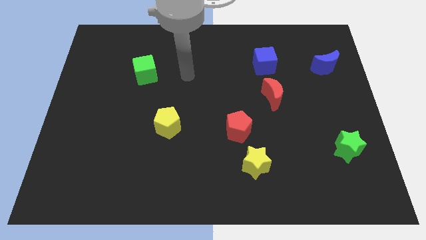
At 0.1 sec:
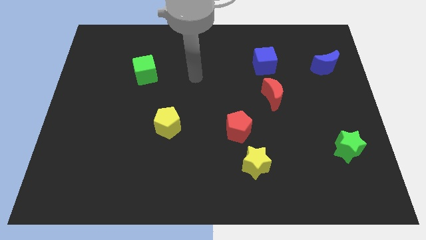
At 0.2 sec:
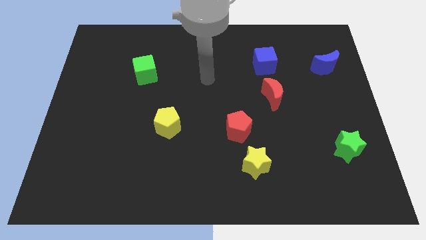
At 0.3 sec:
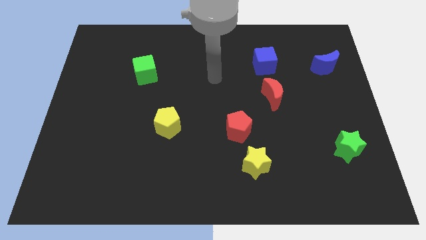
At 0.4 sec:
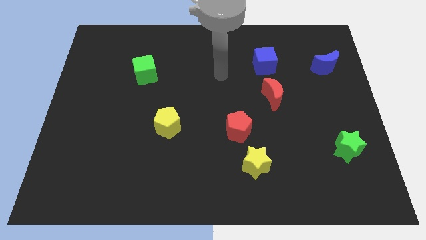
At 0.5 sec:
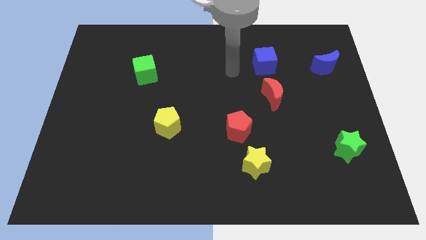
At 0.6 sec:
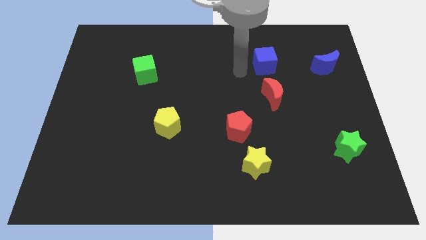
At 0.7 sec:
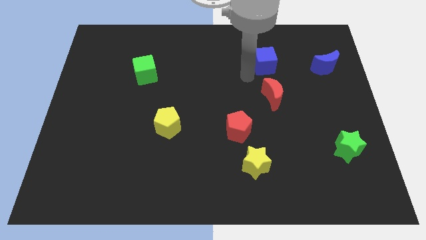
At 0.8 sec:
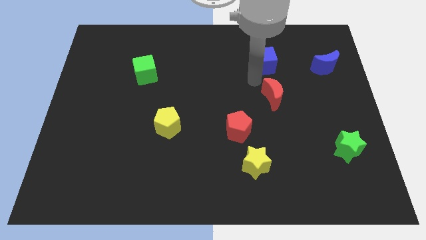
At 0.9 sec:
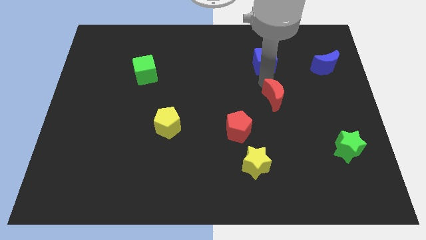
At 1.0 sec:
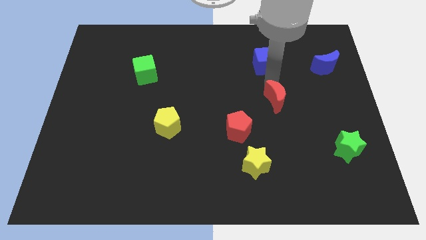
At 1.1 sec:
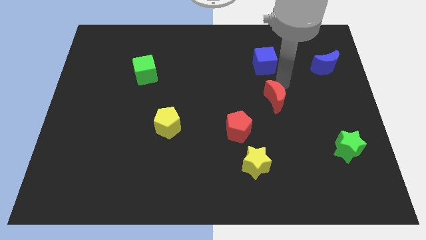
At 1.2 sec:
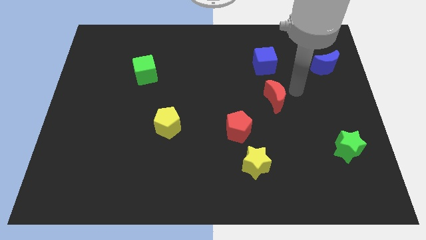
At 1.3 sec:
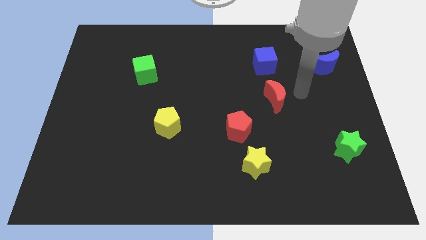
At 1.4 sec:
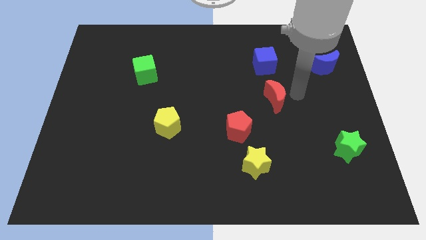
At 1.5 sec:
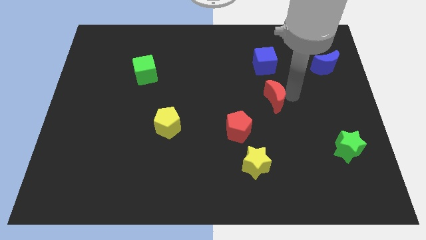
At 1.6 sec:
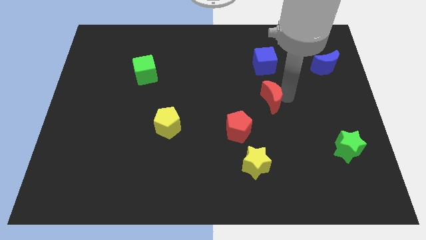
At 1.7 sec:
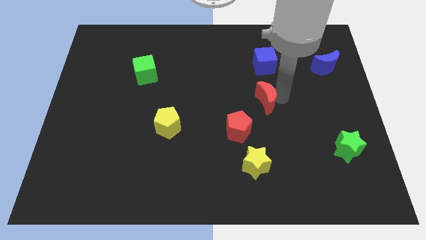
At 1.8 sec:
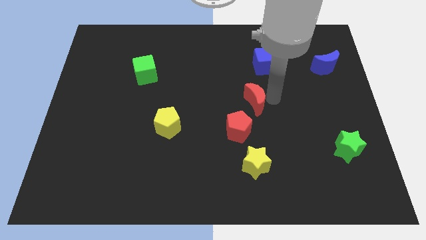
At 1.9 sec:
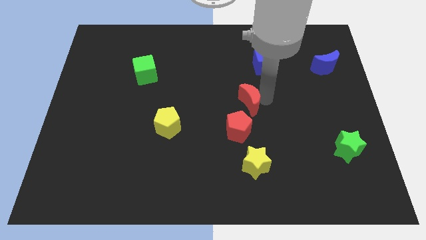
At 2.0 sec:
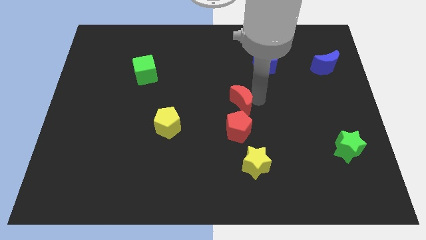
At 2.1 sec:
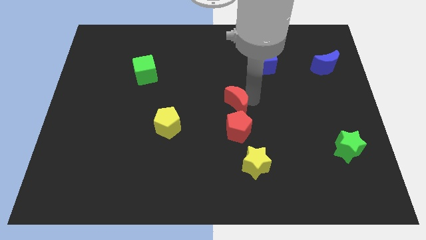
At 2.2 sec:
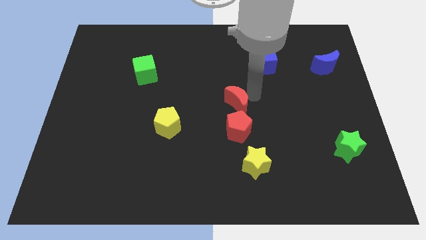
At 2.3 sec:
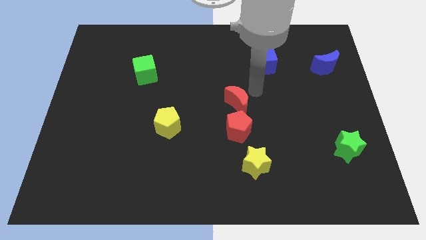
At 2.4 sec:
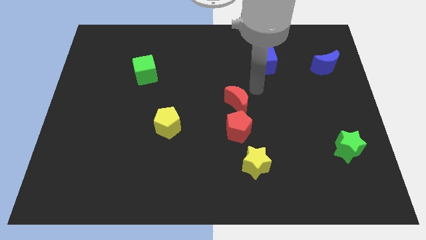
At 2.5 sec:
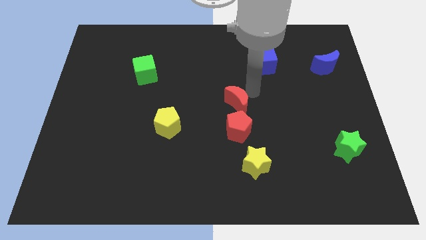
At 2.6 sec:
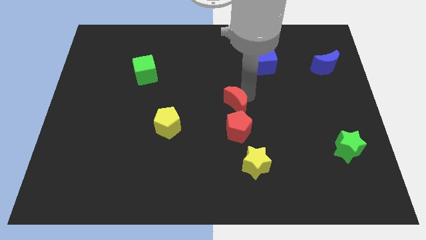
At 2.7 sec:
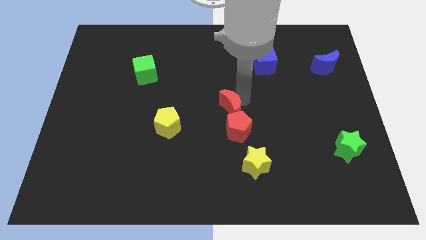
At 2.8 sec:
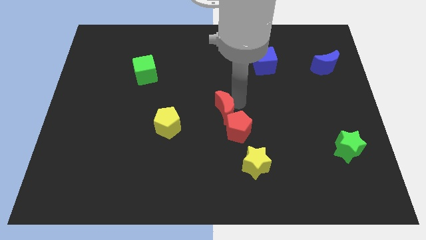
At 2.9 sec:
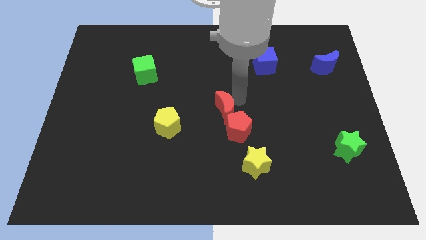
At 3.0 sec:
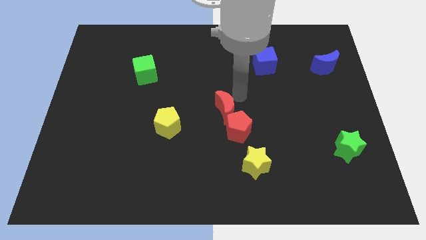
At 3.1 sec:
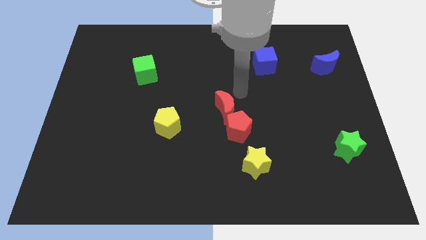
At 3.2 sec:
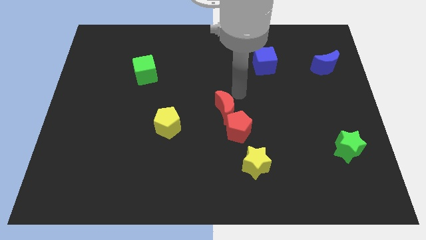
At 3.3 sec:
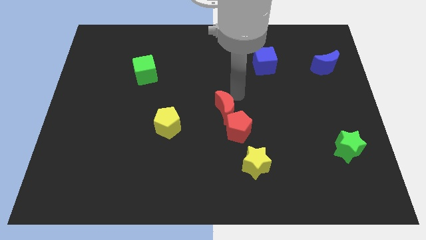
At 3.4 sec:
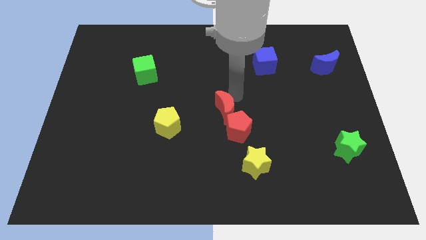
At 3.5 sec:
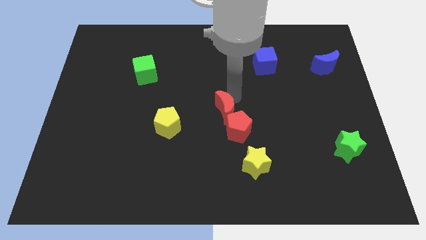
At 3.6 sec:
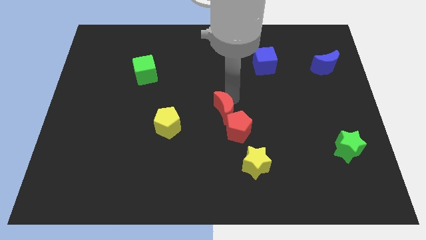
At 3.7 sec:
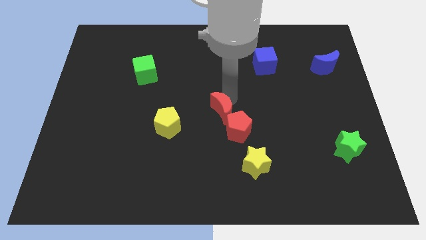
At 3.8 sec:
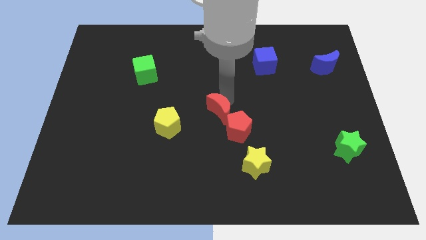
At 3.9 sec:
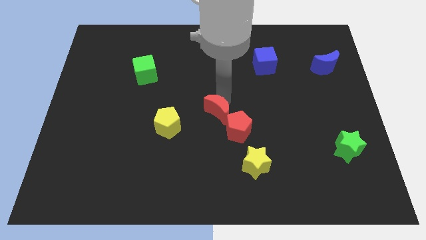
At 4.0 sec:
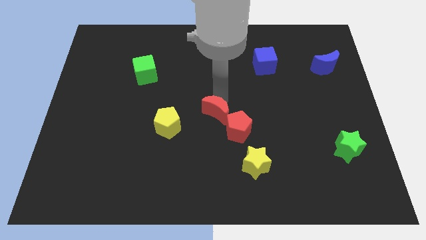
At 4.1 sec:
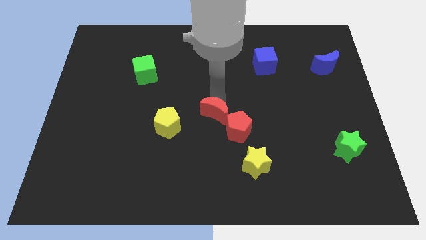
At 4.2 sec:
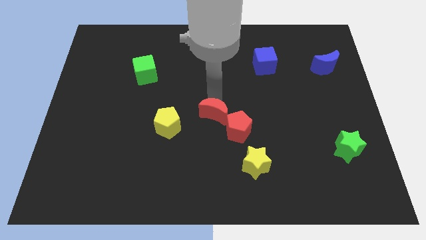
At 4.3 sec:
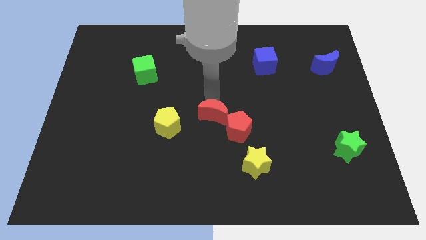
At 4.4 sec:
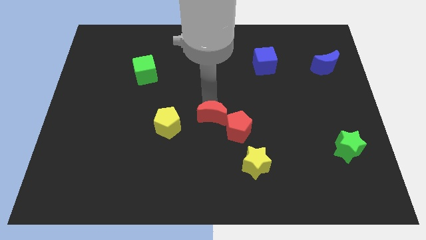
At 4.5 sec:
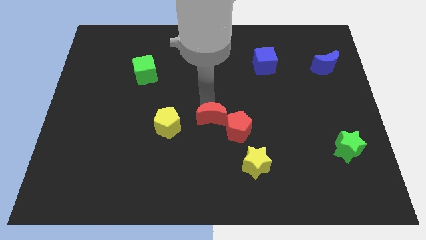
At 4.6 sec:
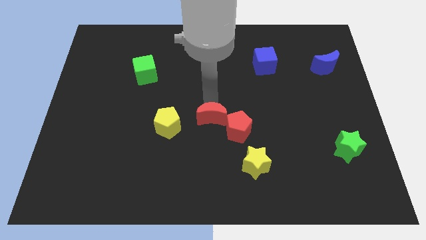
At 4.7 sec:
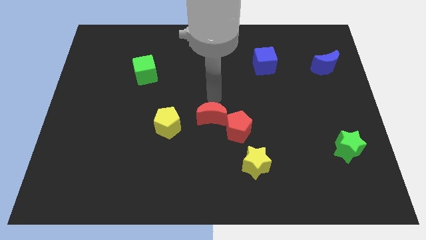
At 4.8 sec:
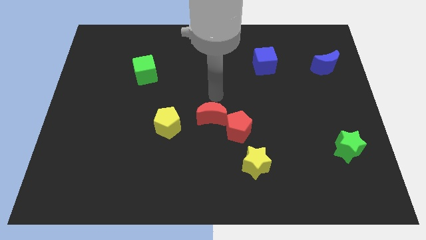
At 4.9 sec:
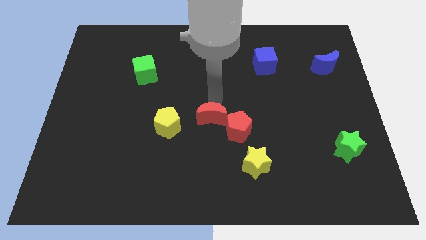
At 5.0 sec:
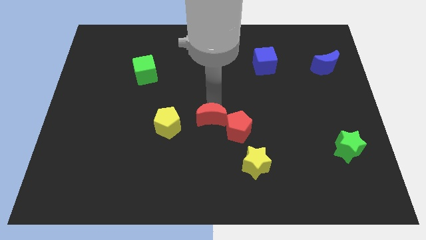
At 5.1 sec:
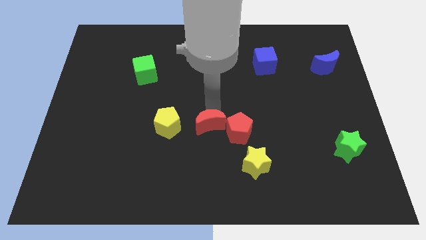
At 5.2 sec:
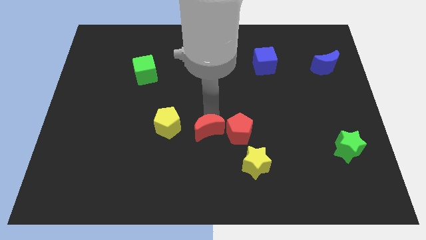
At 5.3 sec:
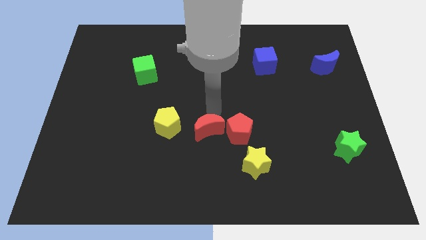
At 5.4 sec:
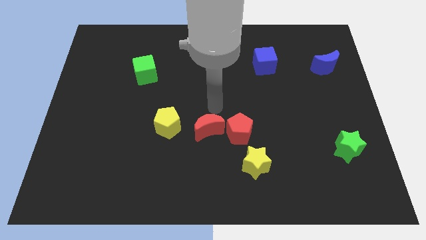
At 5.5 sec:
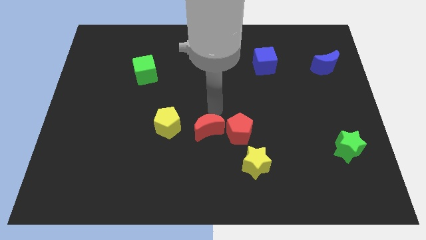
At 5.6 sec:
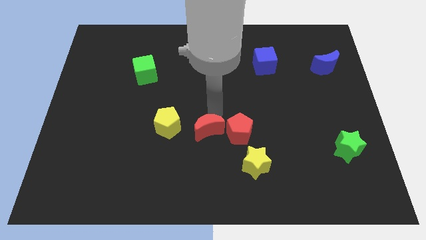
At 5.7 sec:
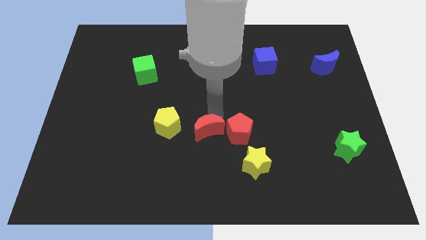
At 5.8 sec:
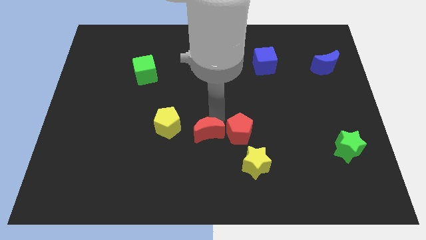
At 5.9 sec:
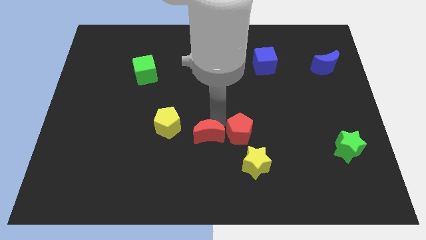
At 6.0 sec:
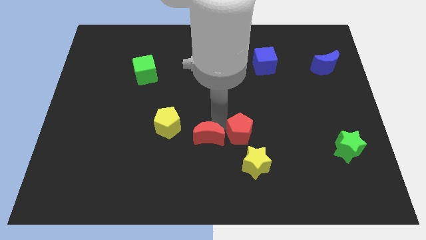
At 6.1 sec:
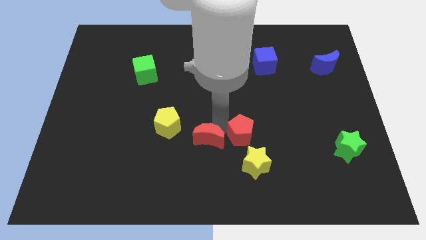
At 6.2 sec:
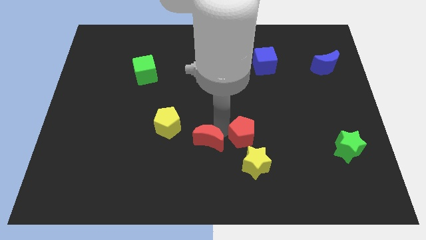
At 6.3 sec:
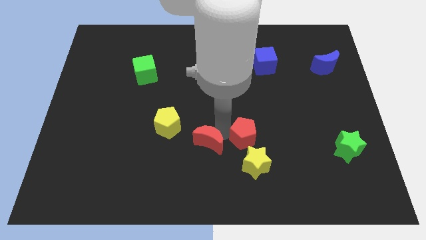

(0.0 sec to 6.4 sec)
move the red moon down and to the left diagonally

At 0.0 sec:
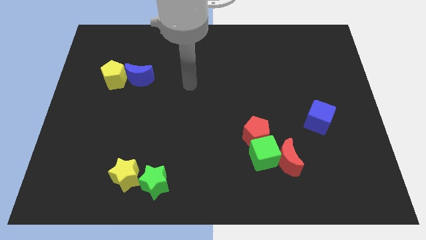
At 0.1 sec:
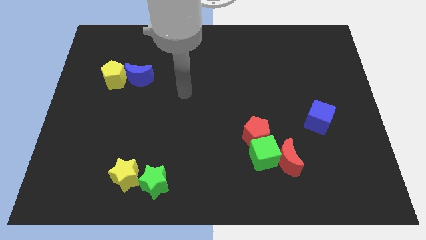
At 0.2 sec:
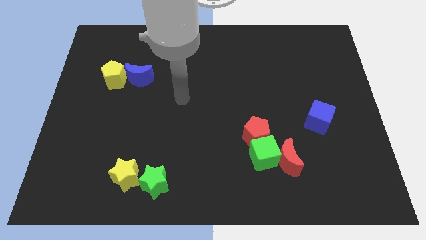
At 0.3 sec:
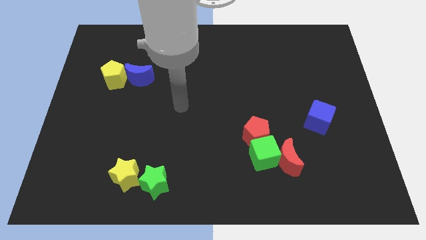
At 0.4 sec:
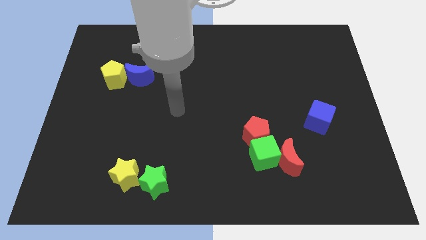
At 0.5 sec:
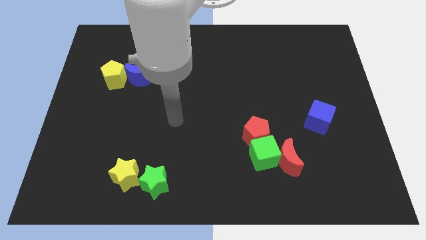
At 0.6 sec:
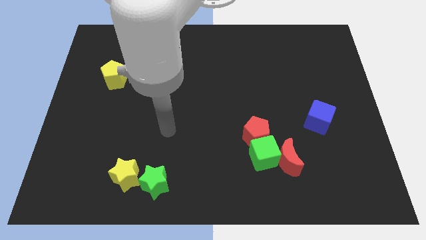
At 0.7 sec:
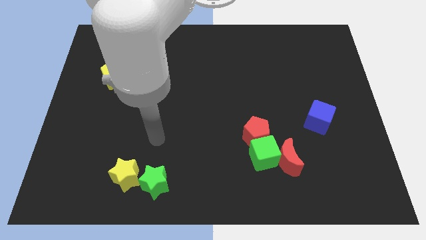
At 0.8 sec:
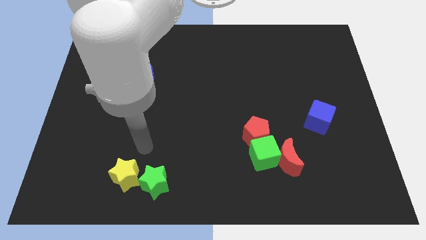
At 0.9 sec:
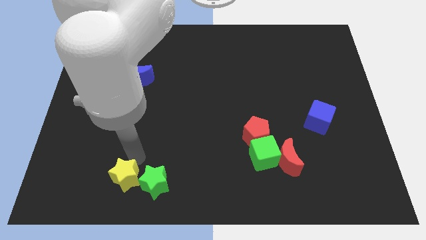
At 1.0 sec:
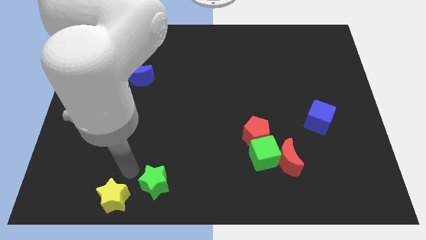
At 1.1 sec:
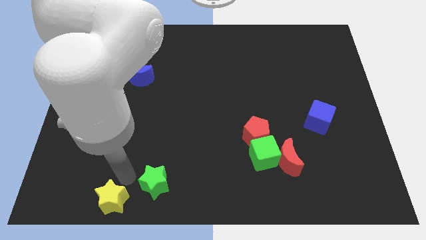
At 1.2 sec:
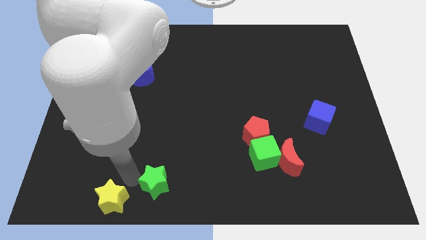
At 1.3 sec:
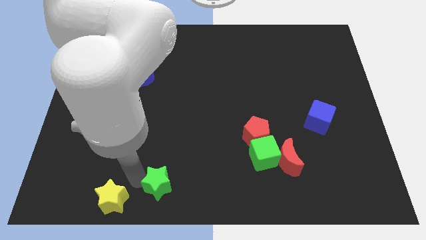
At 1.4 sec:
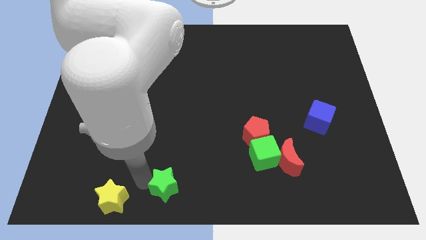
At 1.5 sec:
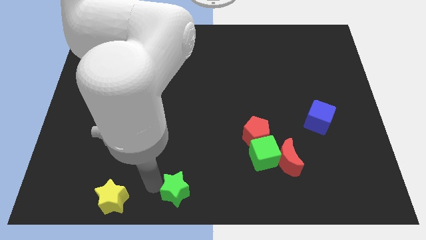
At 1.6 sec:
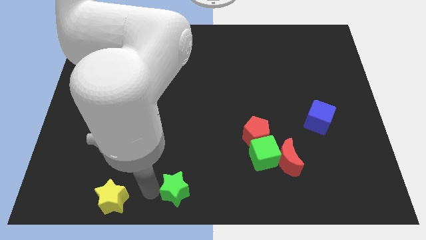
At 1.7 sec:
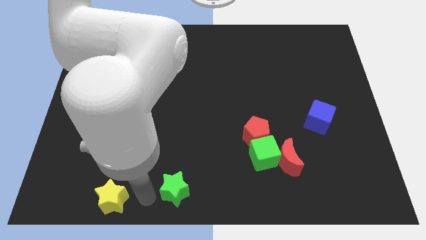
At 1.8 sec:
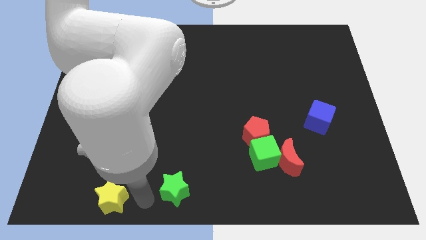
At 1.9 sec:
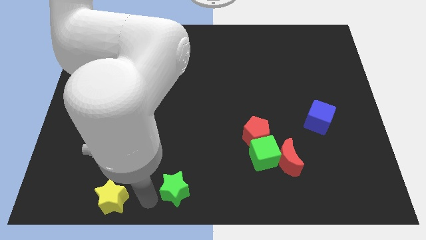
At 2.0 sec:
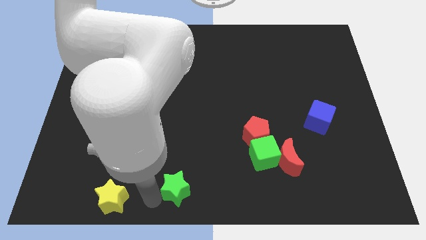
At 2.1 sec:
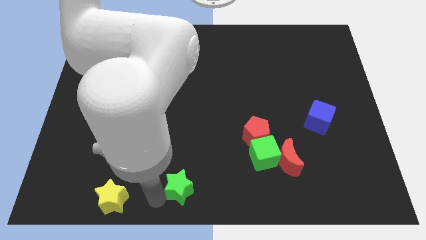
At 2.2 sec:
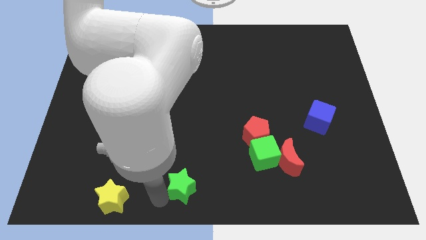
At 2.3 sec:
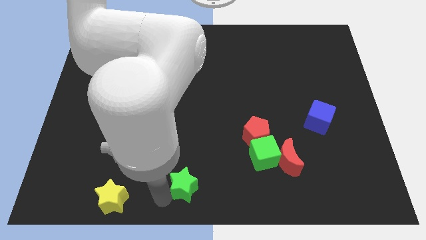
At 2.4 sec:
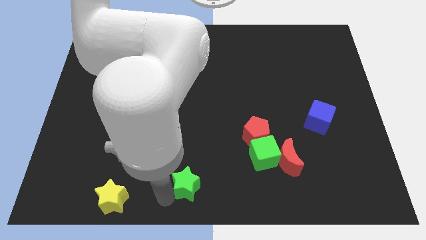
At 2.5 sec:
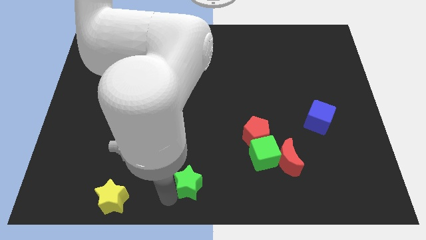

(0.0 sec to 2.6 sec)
slightly push the green star to the right
